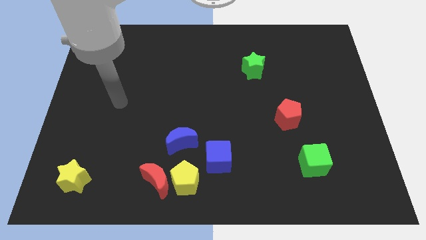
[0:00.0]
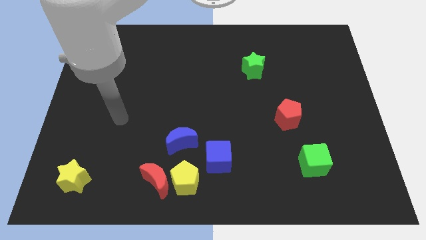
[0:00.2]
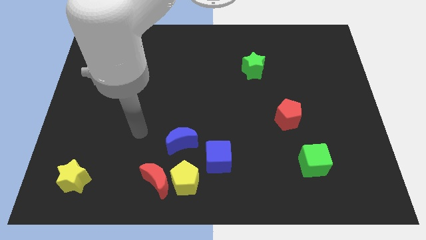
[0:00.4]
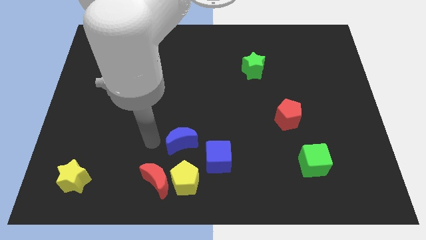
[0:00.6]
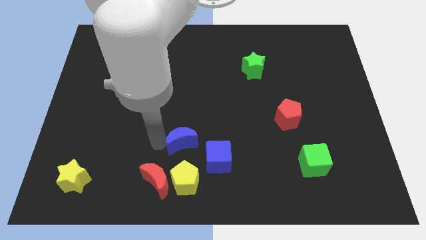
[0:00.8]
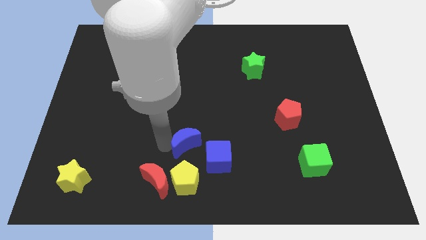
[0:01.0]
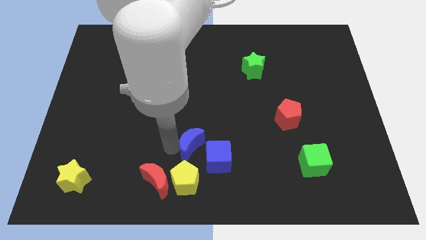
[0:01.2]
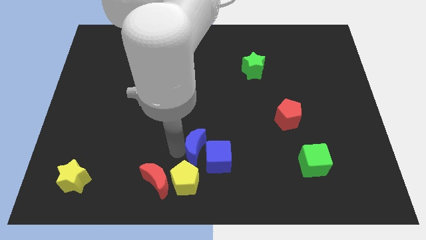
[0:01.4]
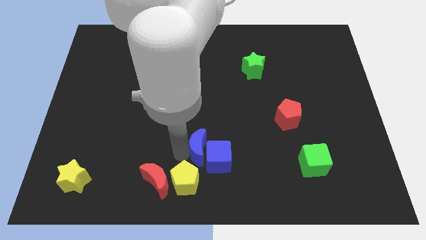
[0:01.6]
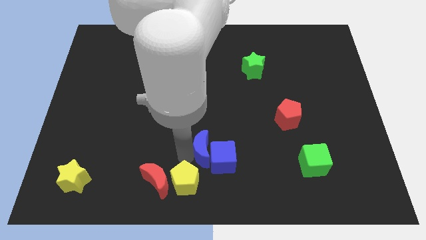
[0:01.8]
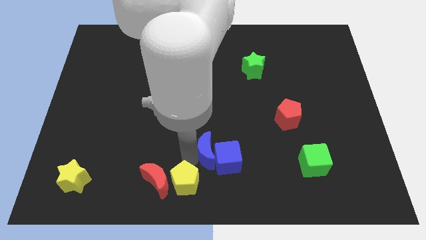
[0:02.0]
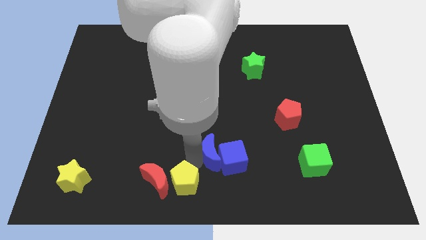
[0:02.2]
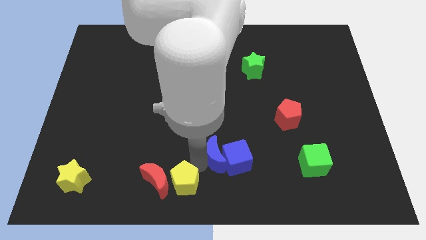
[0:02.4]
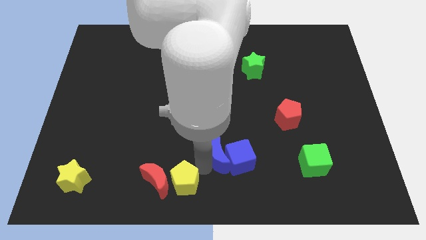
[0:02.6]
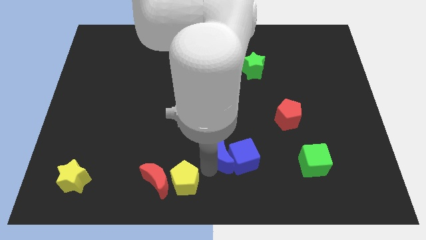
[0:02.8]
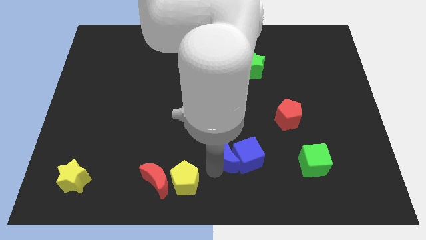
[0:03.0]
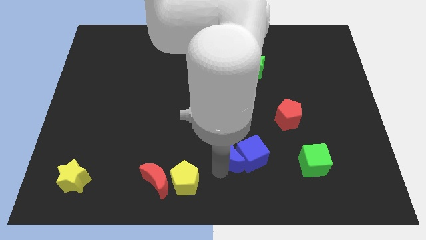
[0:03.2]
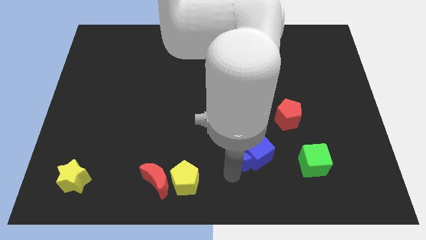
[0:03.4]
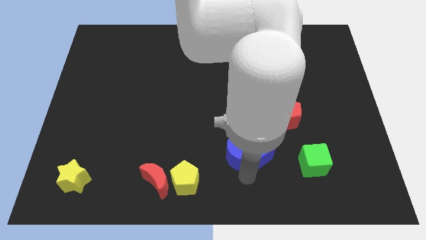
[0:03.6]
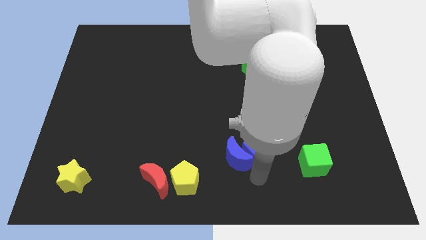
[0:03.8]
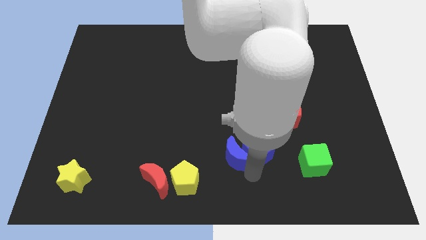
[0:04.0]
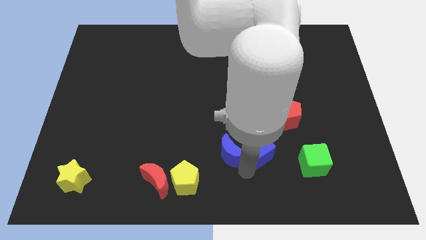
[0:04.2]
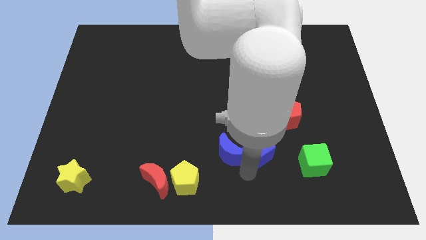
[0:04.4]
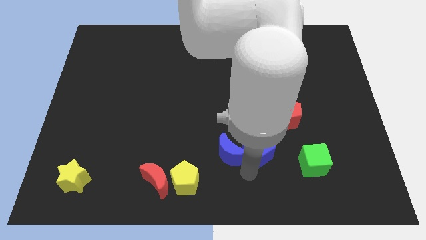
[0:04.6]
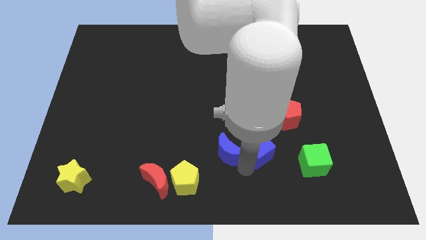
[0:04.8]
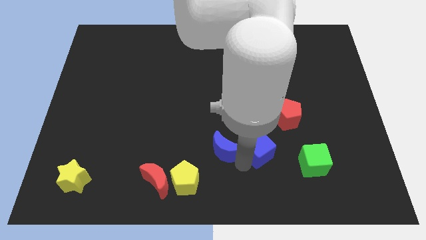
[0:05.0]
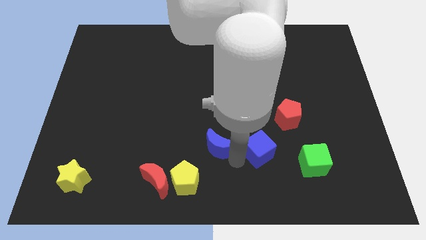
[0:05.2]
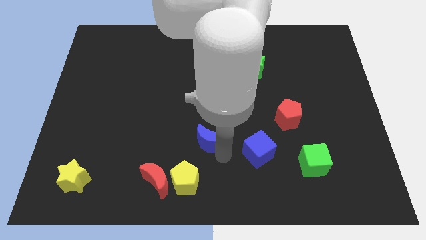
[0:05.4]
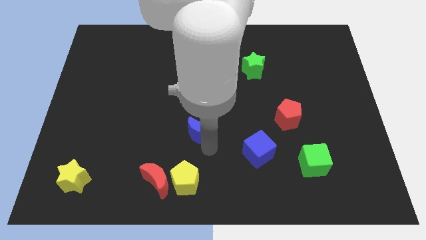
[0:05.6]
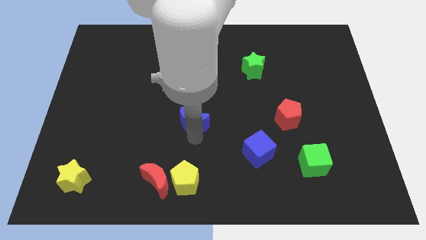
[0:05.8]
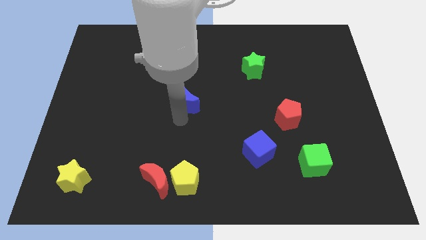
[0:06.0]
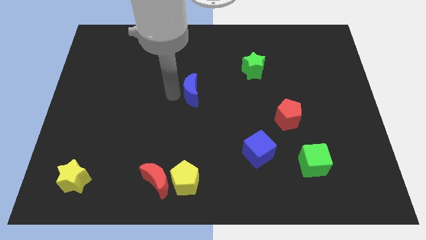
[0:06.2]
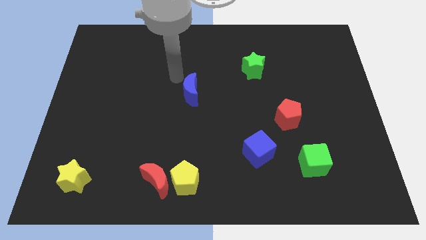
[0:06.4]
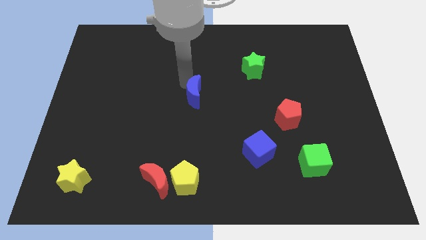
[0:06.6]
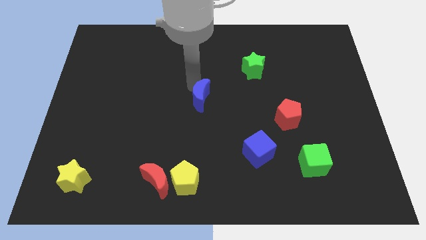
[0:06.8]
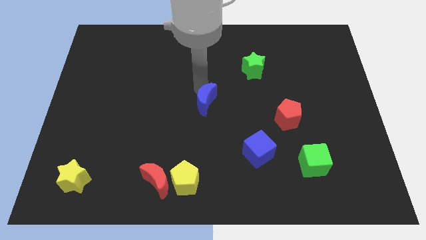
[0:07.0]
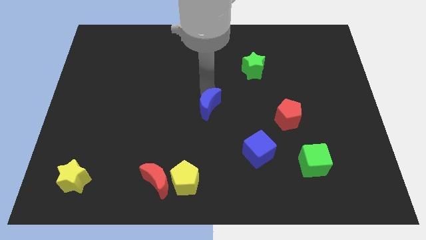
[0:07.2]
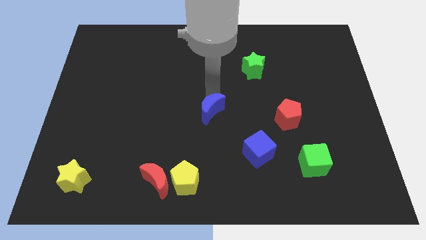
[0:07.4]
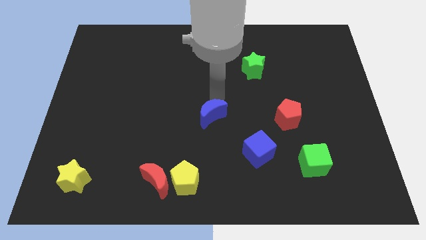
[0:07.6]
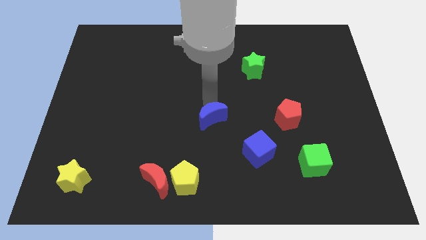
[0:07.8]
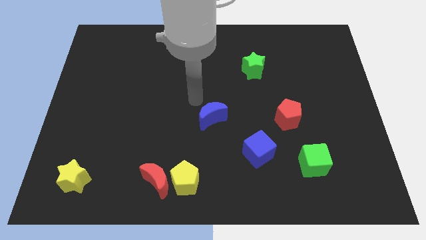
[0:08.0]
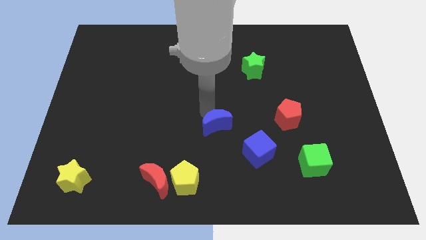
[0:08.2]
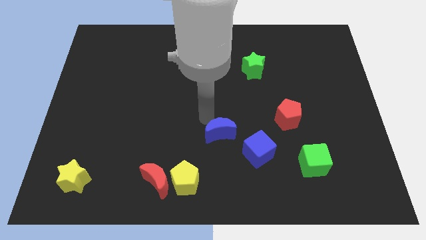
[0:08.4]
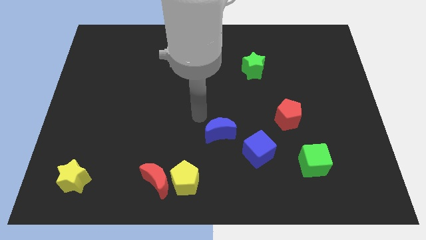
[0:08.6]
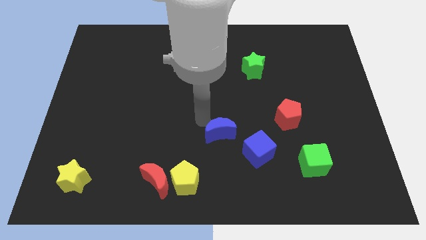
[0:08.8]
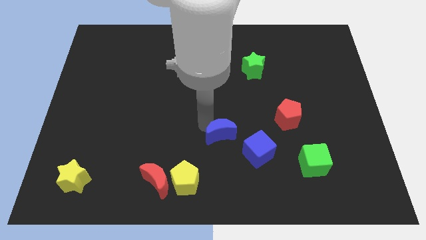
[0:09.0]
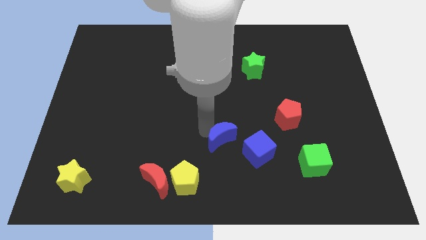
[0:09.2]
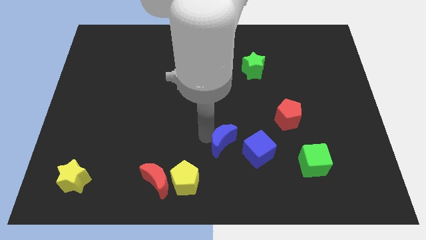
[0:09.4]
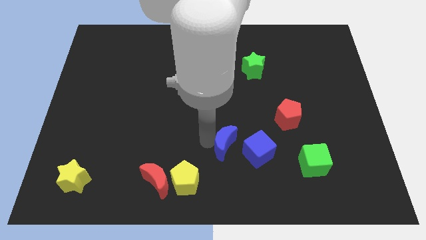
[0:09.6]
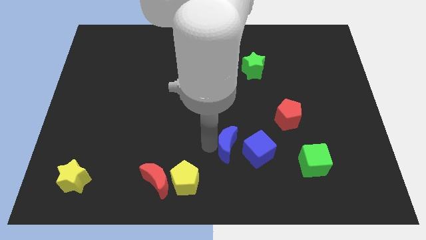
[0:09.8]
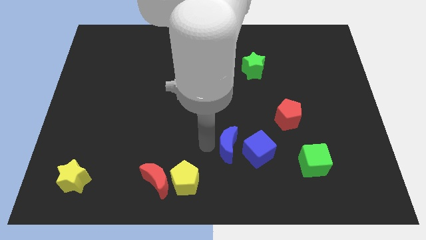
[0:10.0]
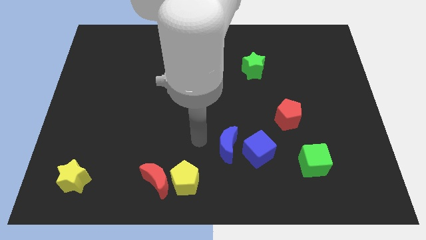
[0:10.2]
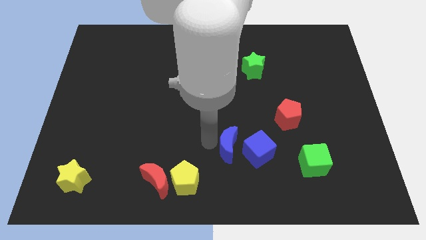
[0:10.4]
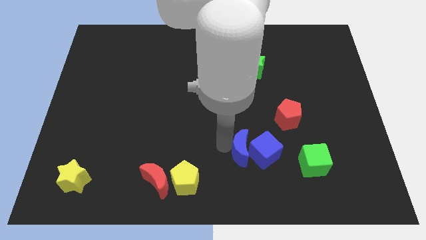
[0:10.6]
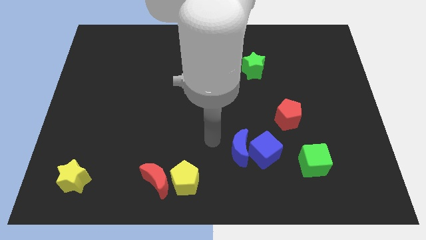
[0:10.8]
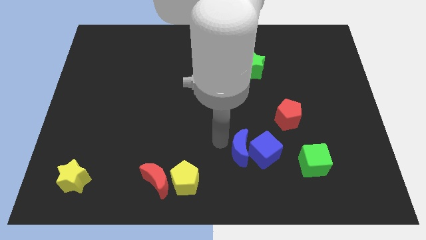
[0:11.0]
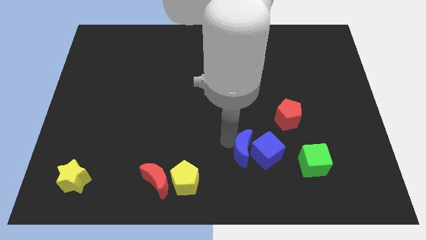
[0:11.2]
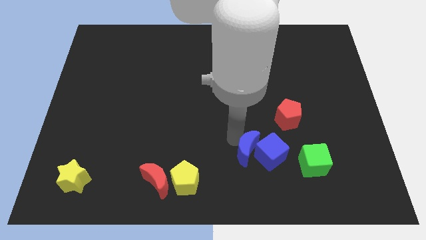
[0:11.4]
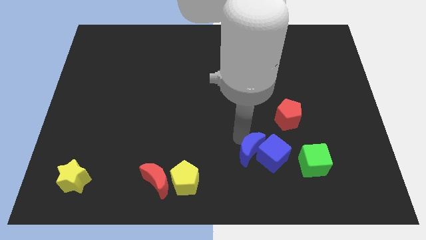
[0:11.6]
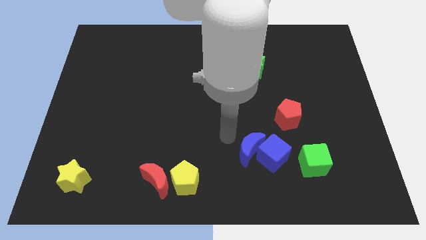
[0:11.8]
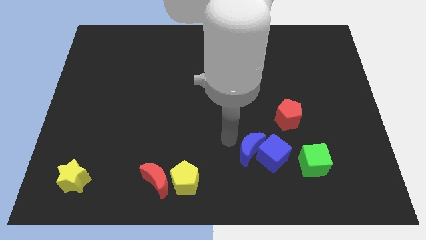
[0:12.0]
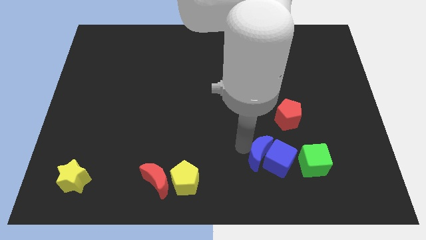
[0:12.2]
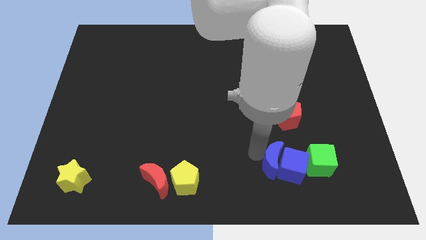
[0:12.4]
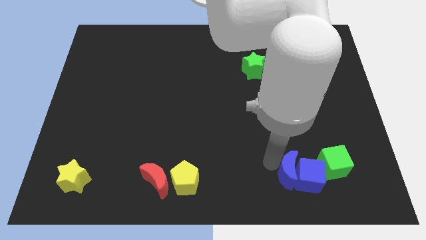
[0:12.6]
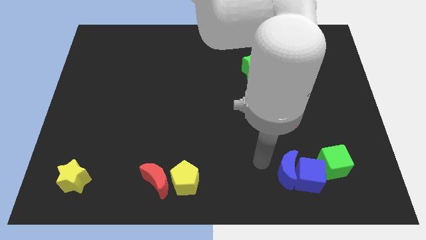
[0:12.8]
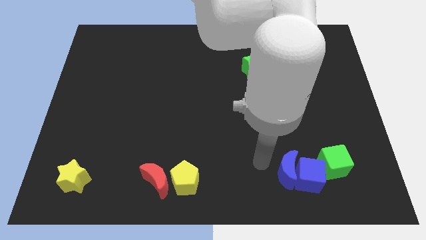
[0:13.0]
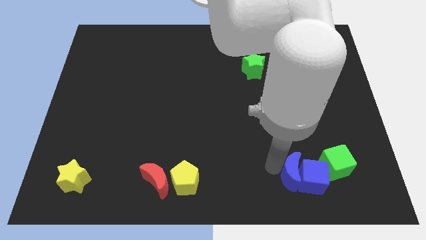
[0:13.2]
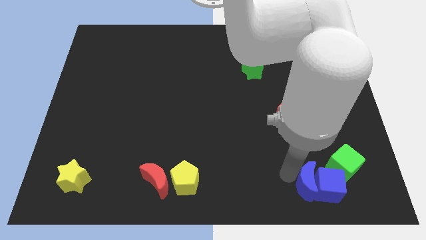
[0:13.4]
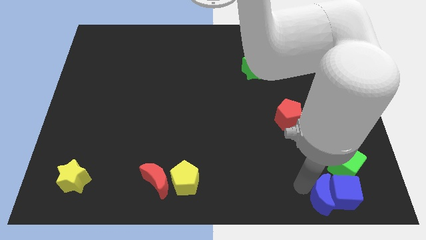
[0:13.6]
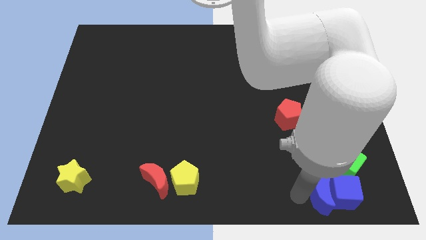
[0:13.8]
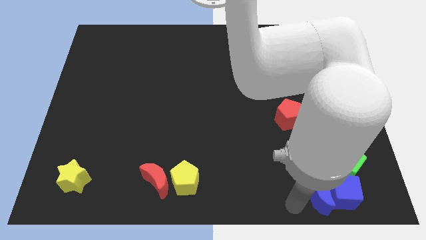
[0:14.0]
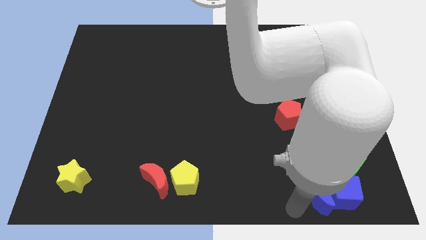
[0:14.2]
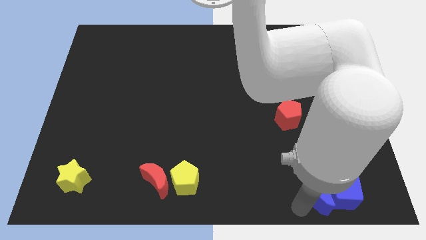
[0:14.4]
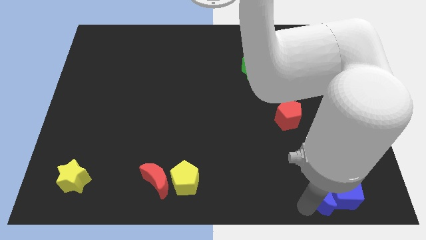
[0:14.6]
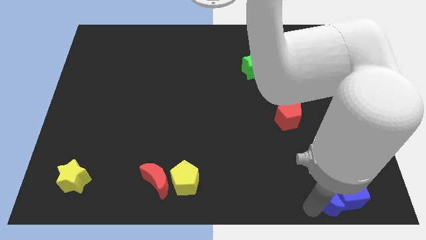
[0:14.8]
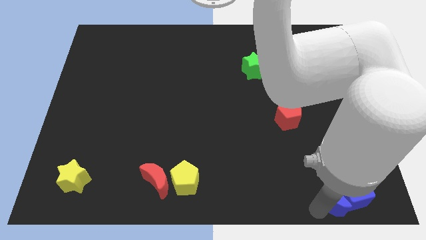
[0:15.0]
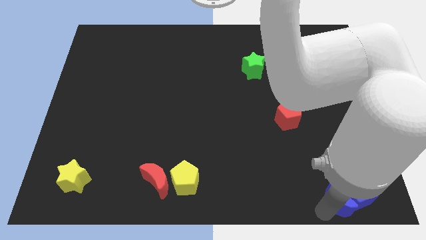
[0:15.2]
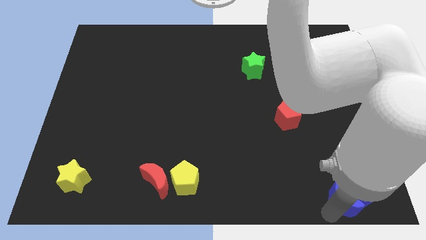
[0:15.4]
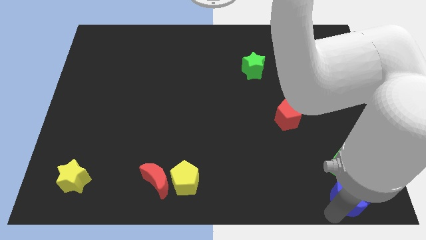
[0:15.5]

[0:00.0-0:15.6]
push the blue moon to the bottom right of the board
